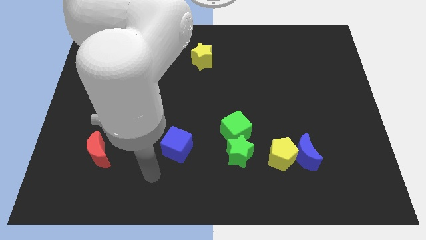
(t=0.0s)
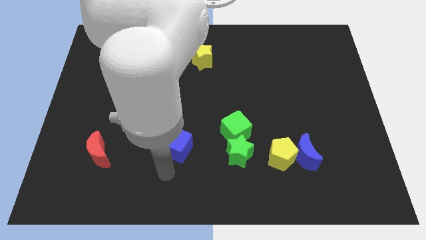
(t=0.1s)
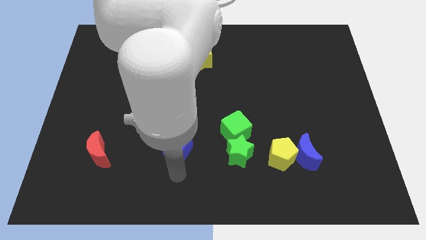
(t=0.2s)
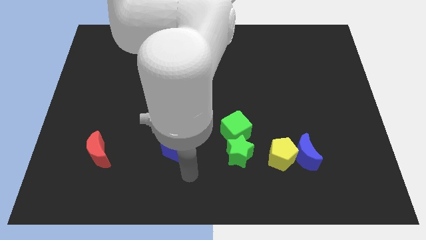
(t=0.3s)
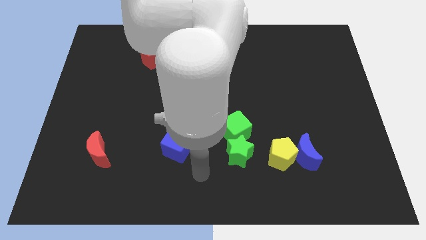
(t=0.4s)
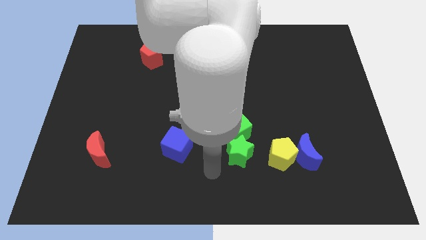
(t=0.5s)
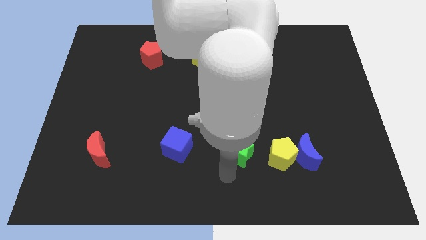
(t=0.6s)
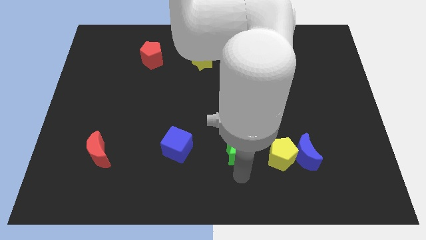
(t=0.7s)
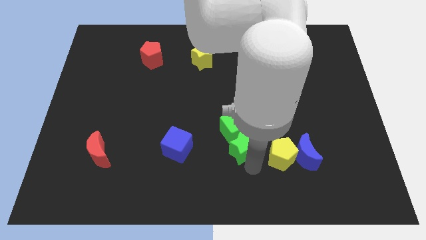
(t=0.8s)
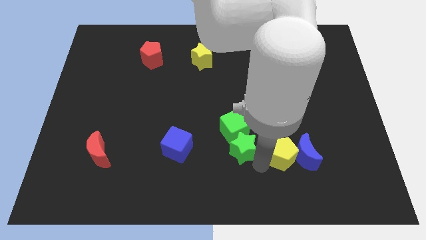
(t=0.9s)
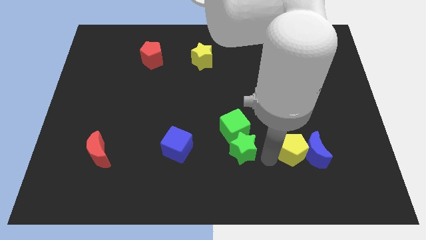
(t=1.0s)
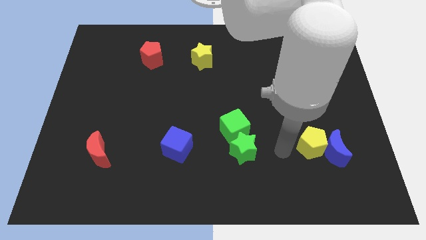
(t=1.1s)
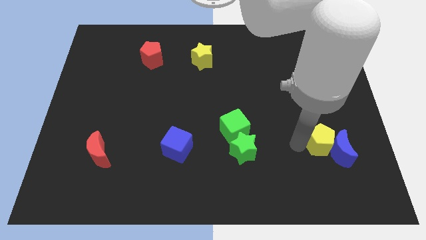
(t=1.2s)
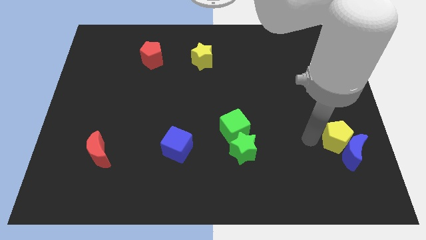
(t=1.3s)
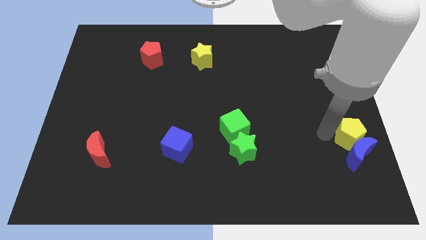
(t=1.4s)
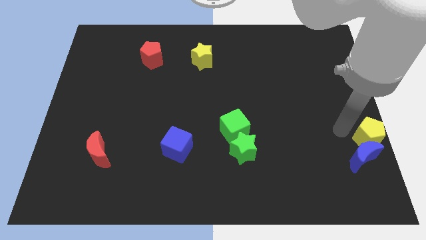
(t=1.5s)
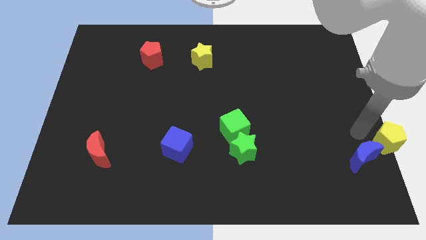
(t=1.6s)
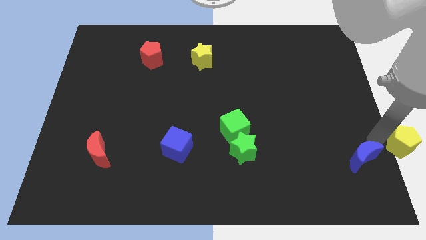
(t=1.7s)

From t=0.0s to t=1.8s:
move the blue moon away from the yellow pentagon

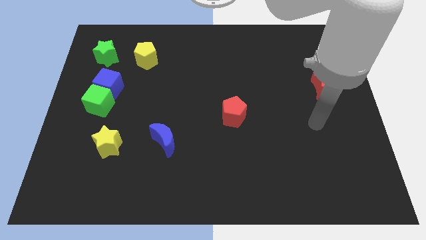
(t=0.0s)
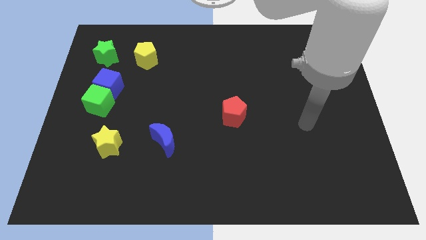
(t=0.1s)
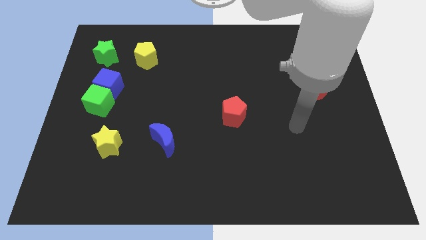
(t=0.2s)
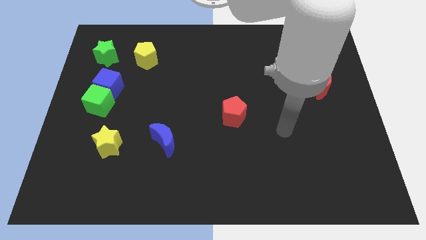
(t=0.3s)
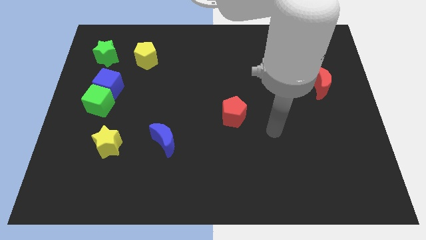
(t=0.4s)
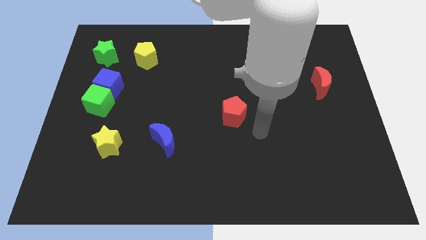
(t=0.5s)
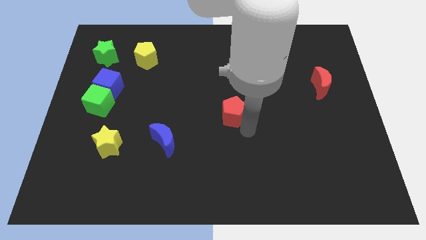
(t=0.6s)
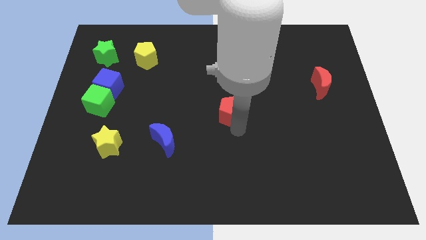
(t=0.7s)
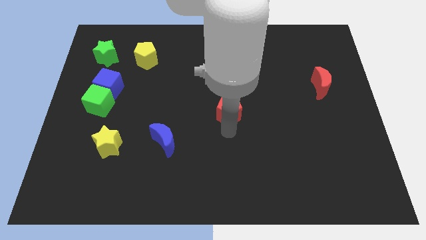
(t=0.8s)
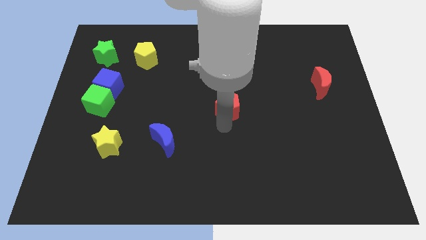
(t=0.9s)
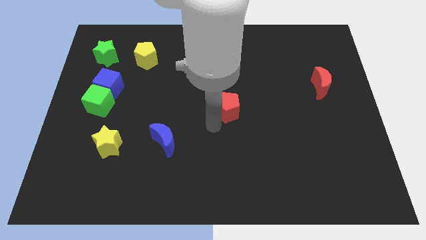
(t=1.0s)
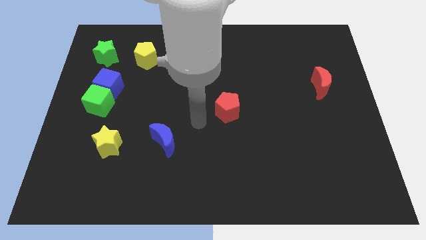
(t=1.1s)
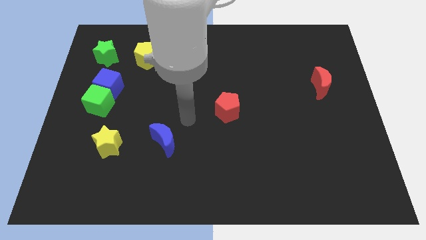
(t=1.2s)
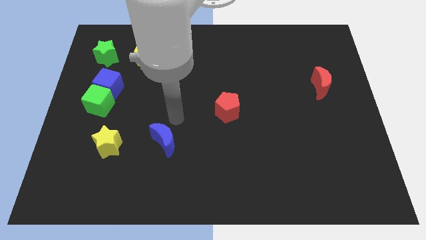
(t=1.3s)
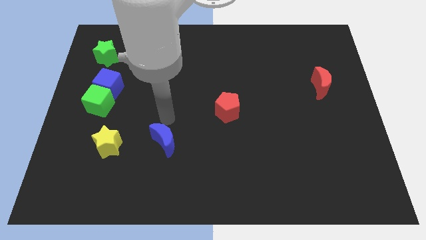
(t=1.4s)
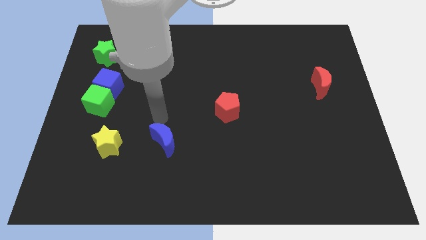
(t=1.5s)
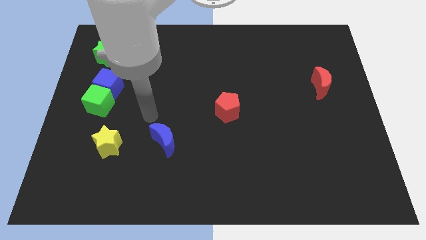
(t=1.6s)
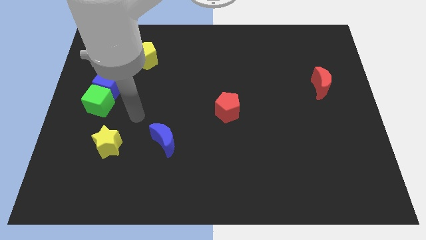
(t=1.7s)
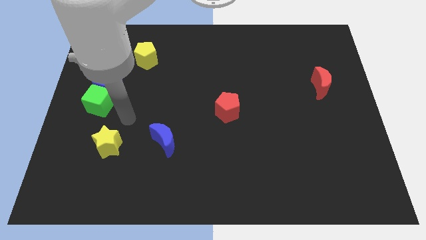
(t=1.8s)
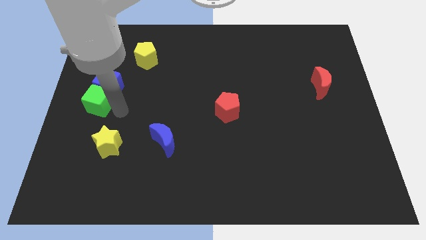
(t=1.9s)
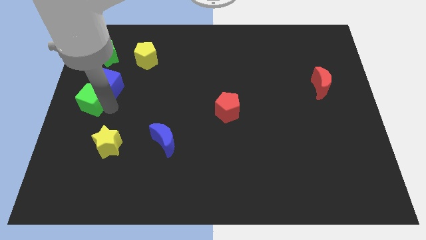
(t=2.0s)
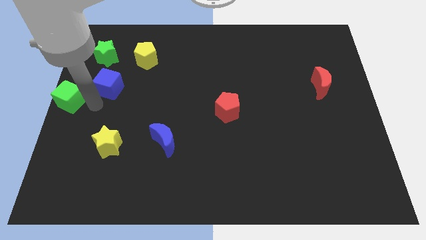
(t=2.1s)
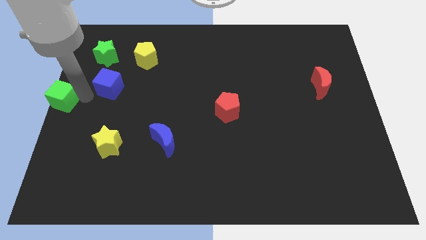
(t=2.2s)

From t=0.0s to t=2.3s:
separate the blue cube from the green cube

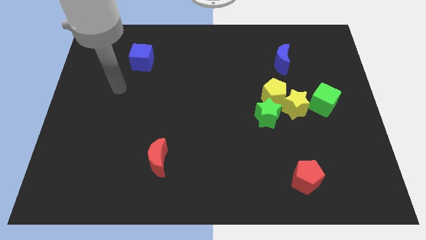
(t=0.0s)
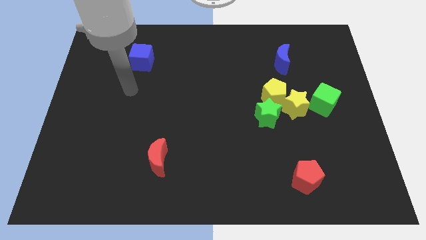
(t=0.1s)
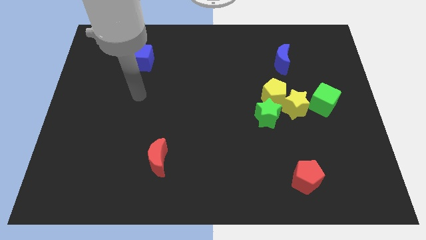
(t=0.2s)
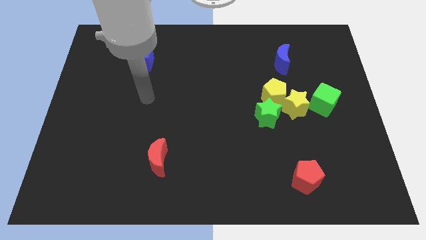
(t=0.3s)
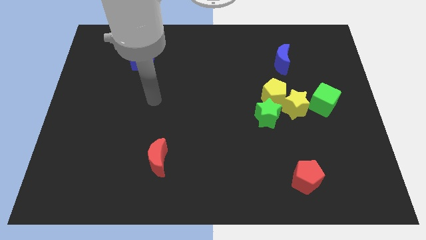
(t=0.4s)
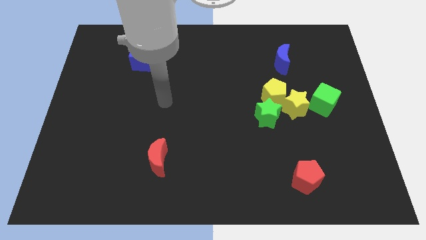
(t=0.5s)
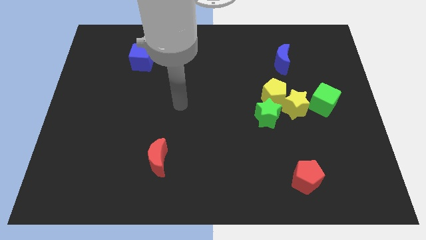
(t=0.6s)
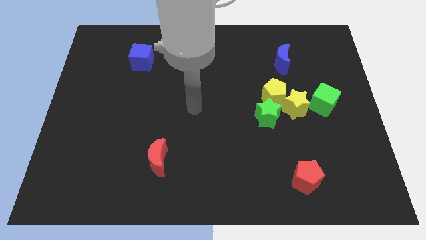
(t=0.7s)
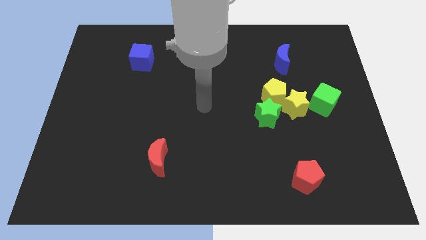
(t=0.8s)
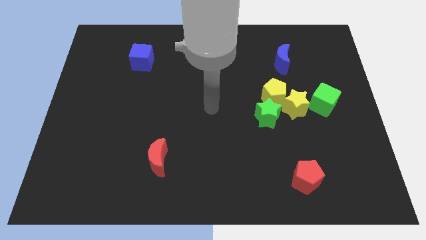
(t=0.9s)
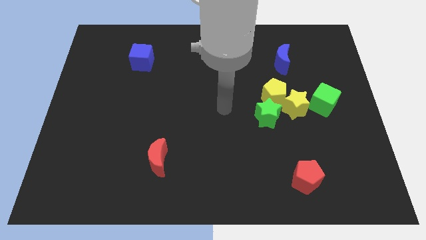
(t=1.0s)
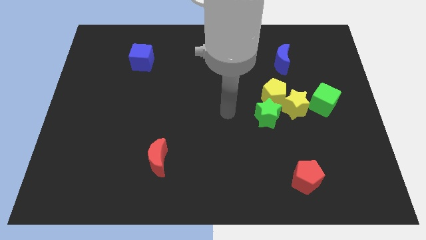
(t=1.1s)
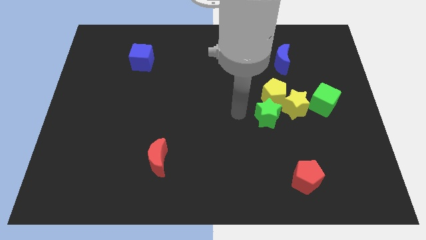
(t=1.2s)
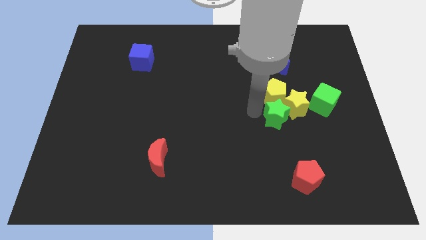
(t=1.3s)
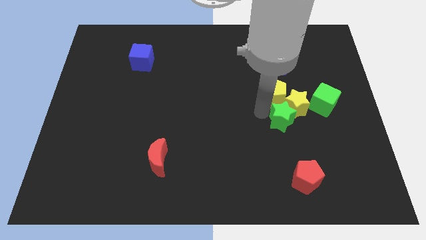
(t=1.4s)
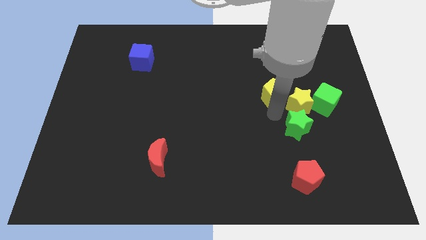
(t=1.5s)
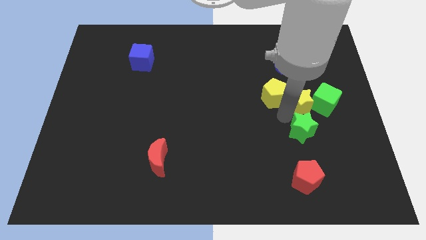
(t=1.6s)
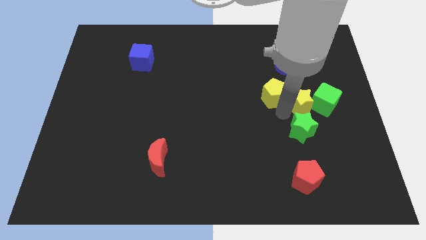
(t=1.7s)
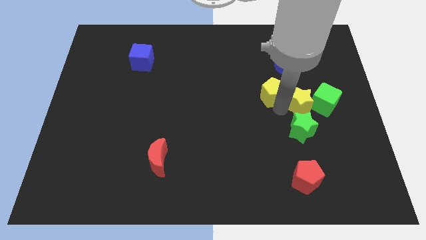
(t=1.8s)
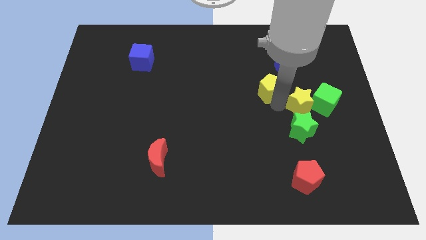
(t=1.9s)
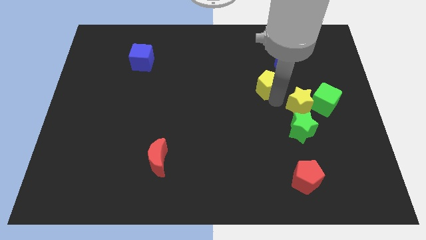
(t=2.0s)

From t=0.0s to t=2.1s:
move the yellow pentagon away from the yellow star and green star

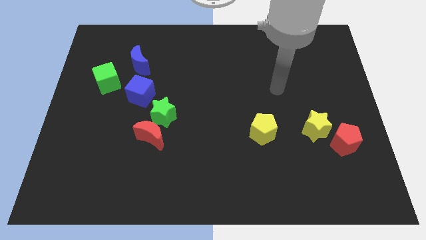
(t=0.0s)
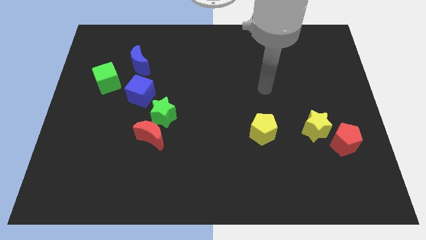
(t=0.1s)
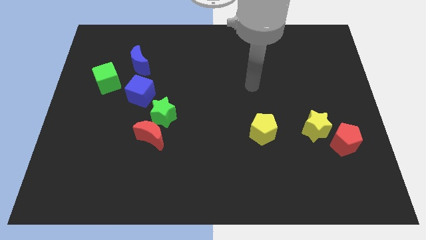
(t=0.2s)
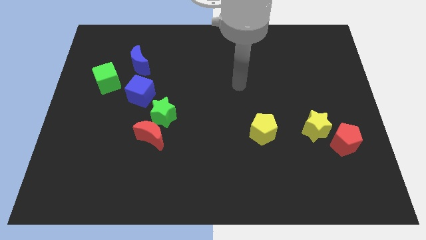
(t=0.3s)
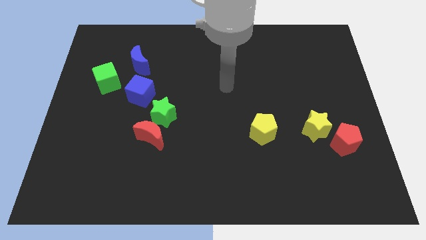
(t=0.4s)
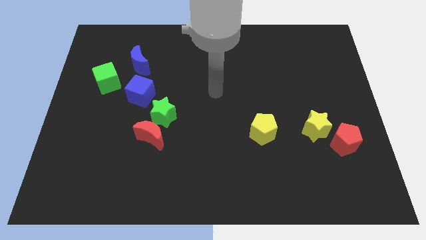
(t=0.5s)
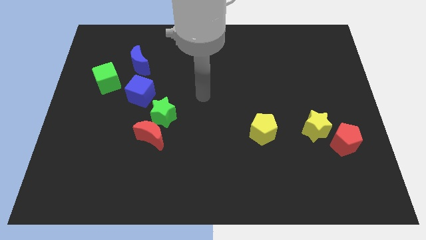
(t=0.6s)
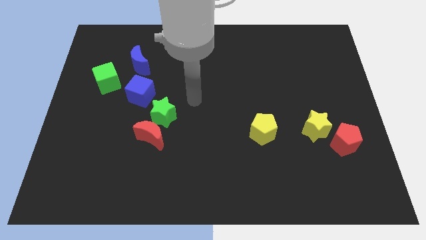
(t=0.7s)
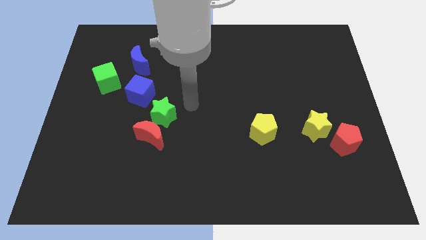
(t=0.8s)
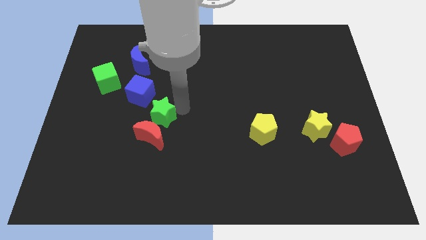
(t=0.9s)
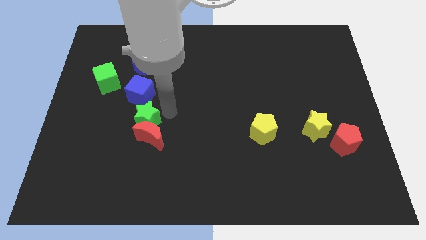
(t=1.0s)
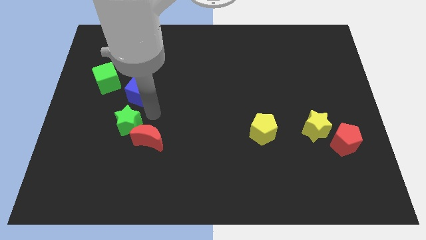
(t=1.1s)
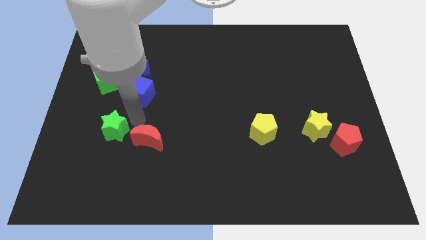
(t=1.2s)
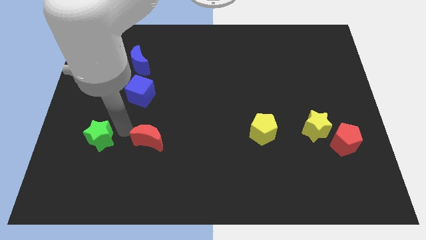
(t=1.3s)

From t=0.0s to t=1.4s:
separate the red moon from the green star

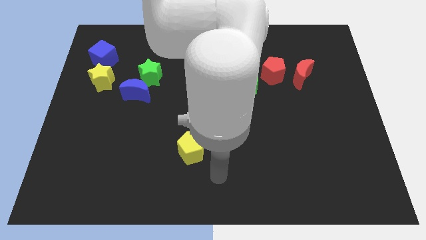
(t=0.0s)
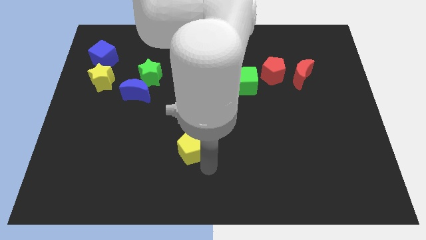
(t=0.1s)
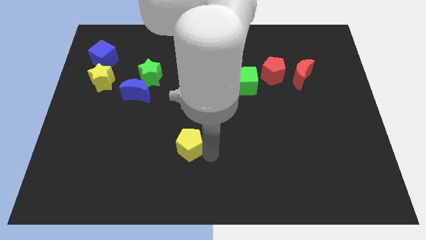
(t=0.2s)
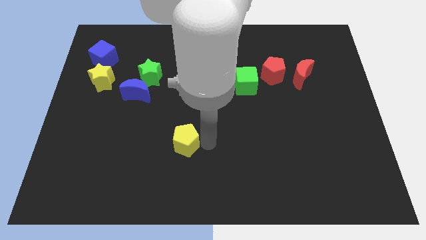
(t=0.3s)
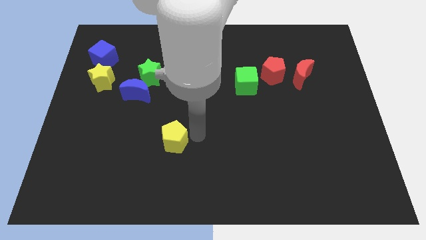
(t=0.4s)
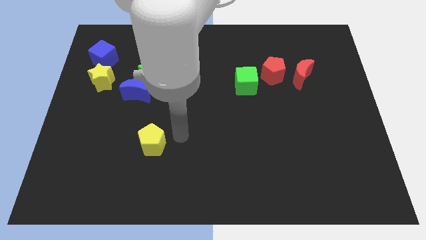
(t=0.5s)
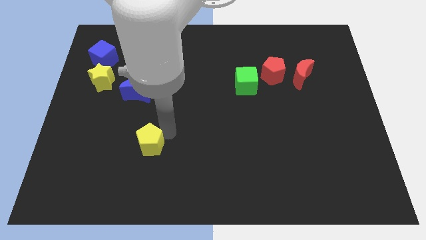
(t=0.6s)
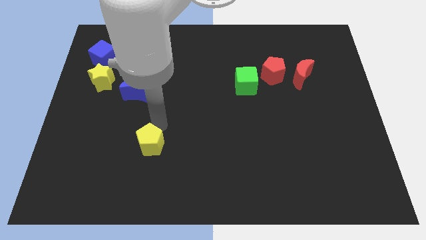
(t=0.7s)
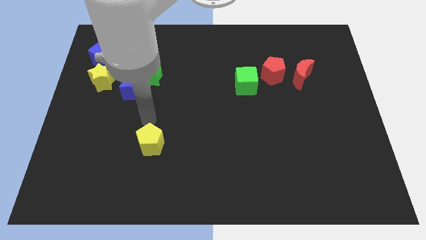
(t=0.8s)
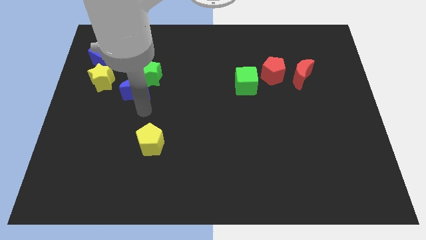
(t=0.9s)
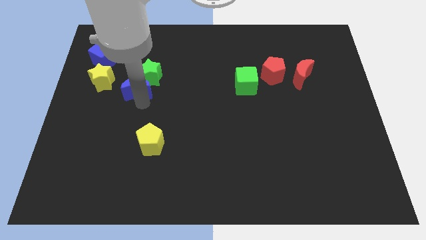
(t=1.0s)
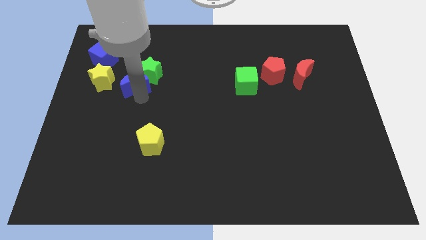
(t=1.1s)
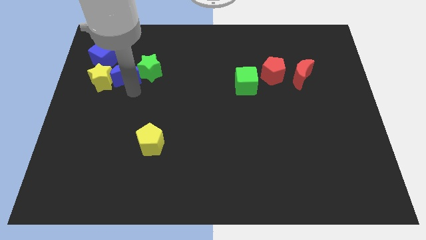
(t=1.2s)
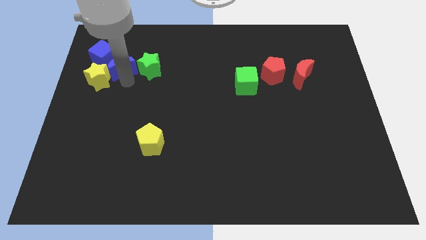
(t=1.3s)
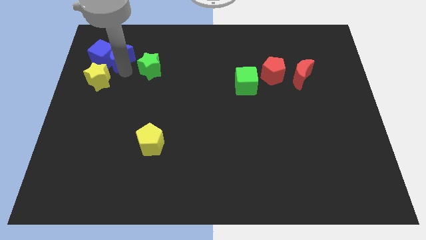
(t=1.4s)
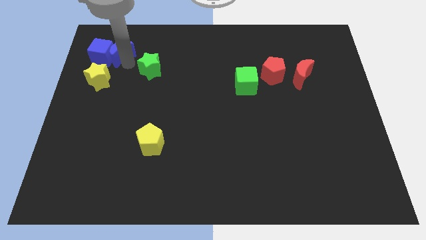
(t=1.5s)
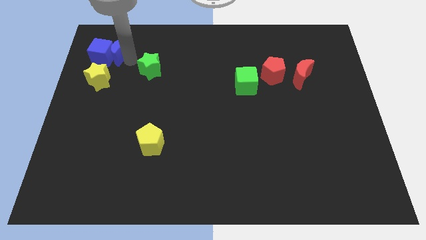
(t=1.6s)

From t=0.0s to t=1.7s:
separate the green star from the blue moon
